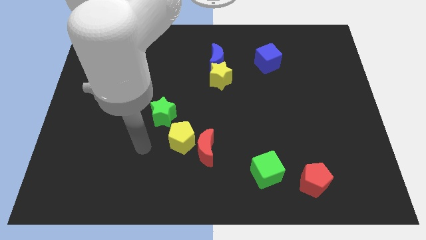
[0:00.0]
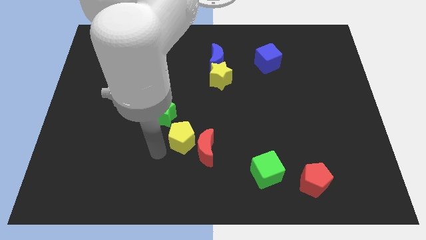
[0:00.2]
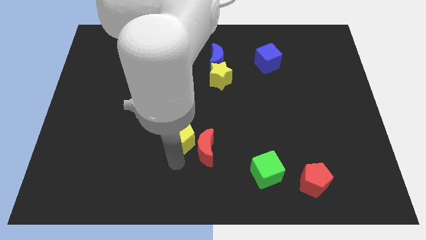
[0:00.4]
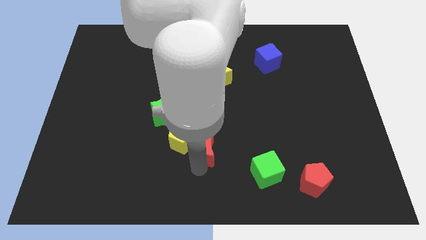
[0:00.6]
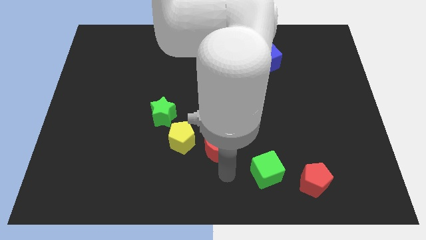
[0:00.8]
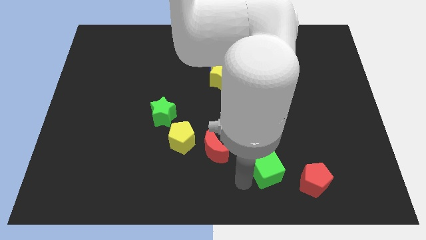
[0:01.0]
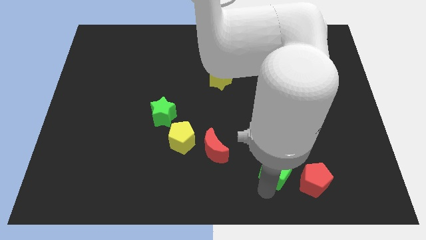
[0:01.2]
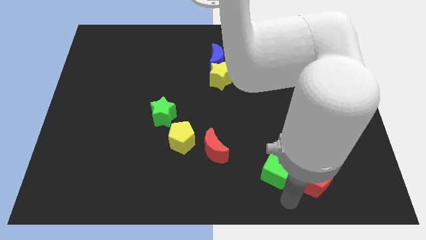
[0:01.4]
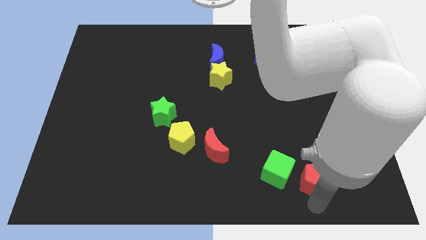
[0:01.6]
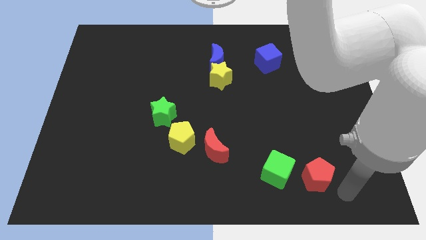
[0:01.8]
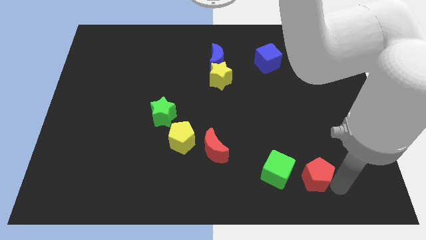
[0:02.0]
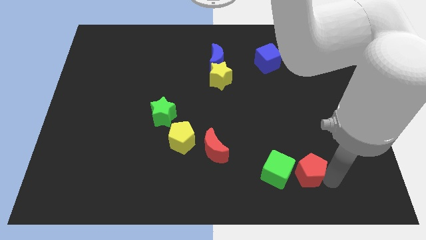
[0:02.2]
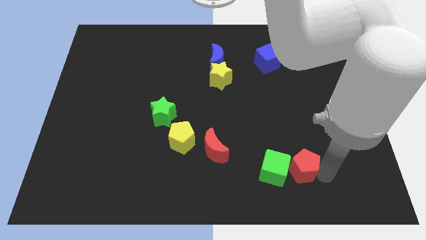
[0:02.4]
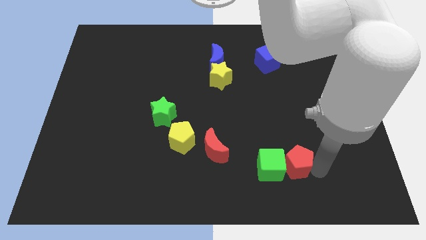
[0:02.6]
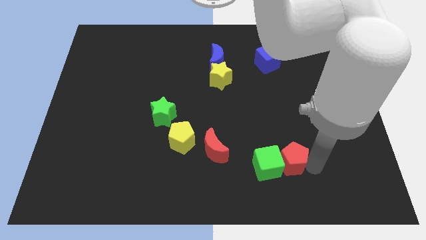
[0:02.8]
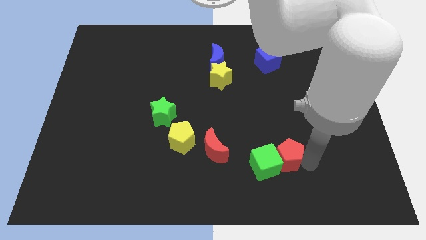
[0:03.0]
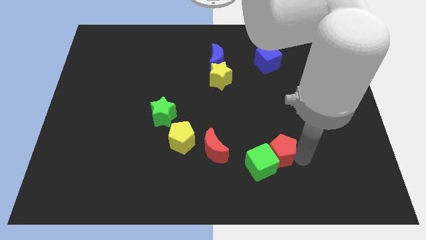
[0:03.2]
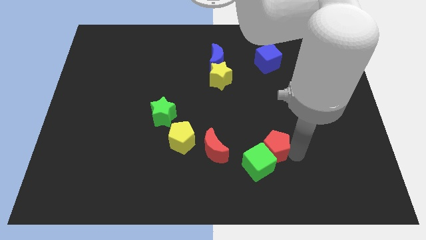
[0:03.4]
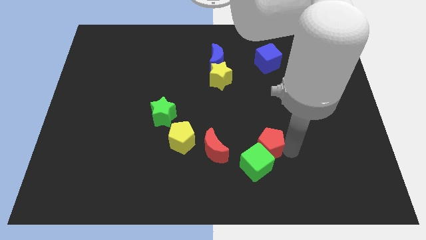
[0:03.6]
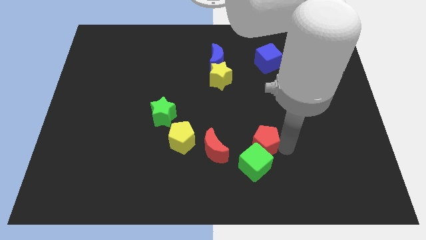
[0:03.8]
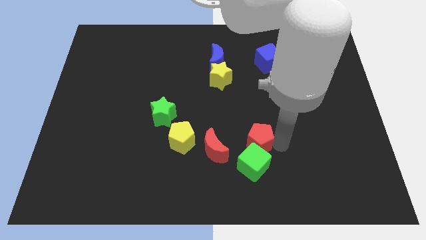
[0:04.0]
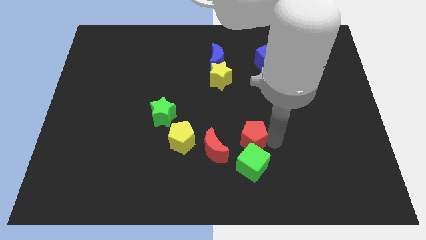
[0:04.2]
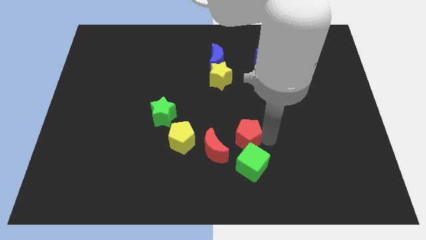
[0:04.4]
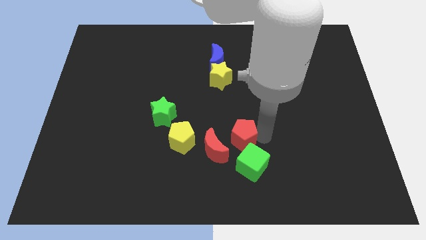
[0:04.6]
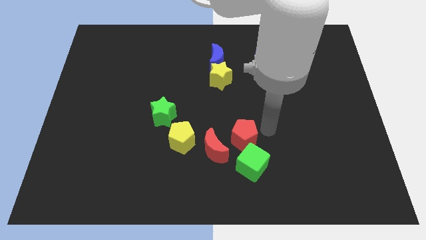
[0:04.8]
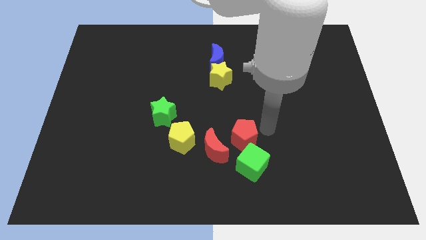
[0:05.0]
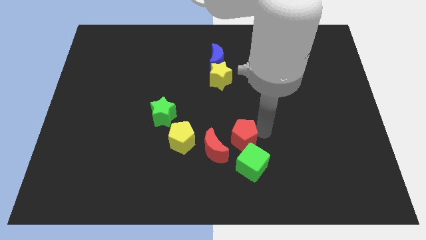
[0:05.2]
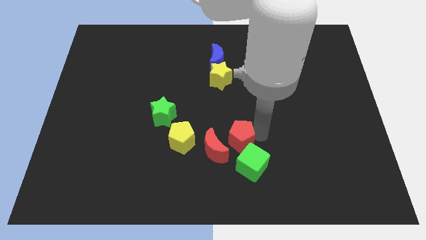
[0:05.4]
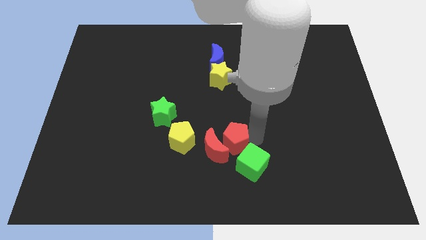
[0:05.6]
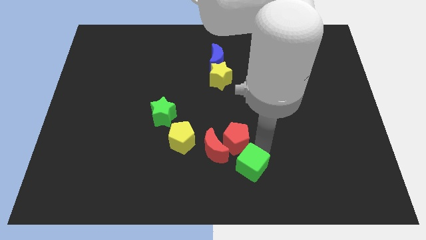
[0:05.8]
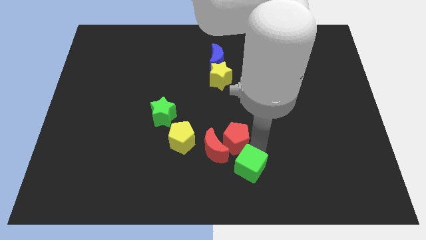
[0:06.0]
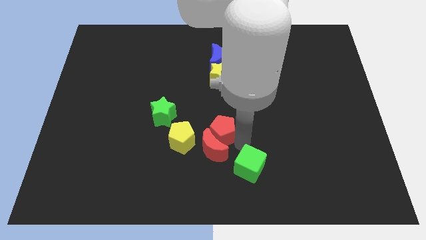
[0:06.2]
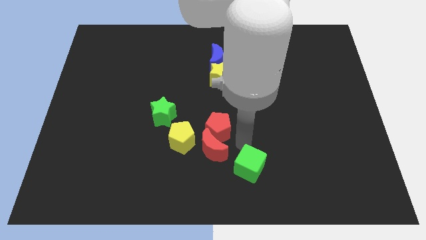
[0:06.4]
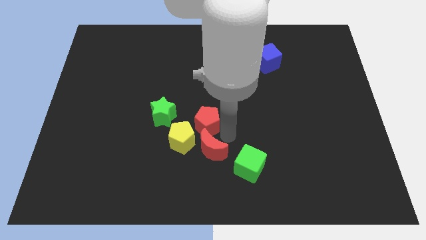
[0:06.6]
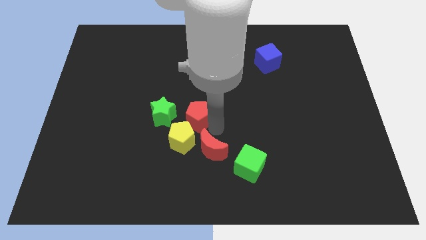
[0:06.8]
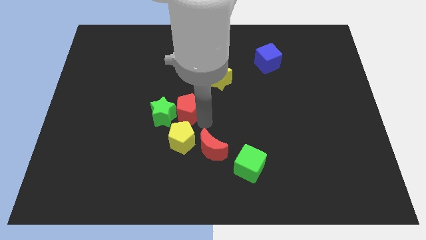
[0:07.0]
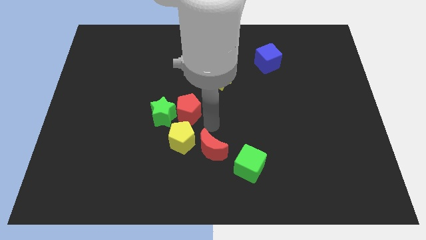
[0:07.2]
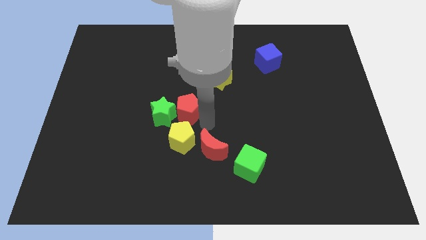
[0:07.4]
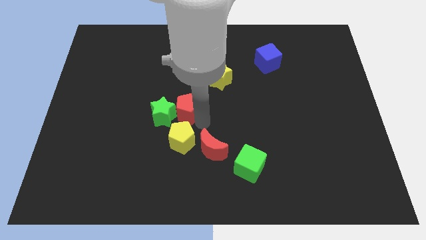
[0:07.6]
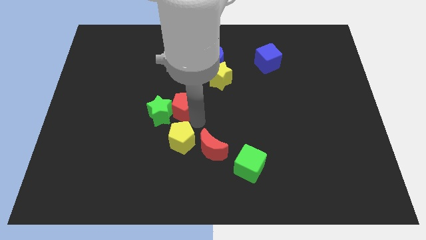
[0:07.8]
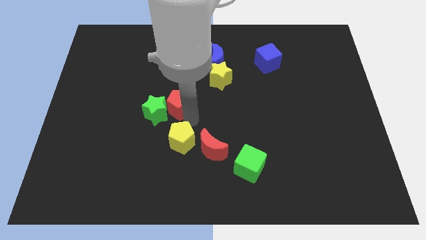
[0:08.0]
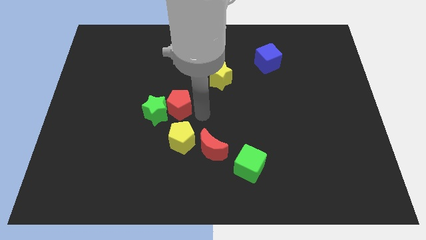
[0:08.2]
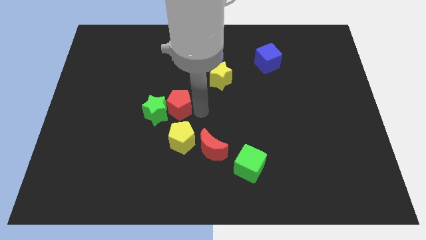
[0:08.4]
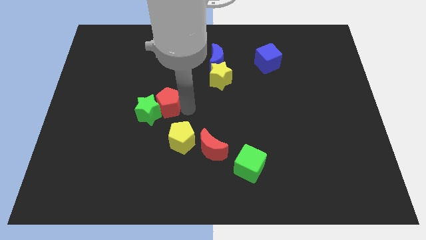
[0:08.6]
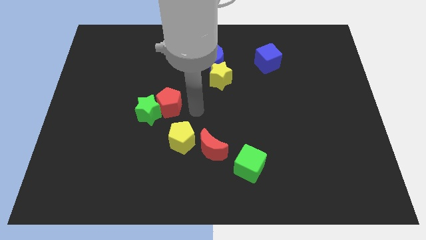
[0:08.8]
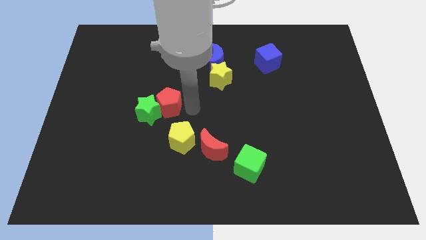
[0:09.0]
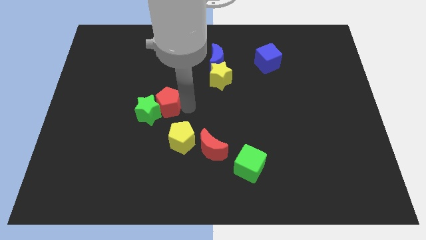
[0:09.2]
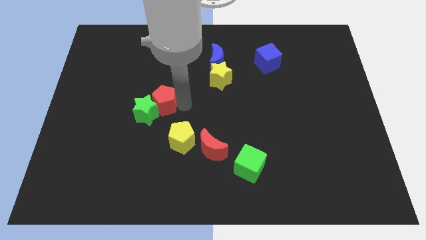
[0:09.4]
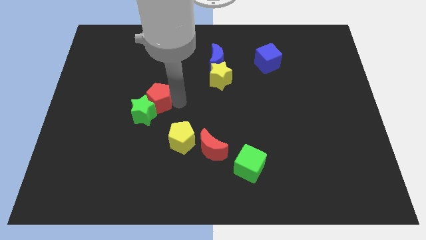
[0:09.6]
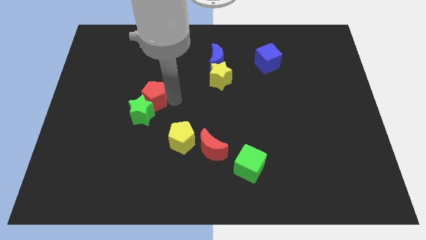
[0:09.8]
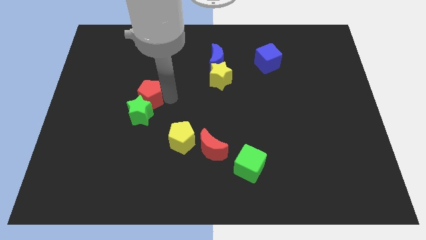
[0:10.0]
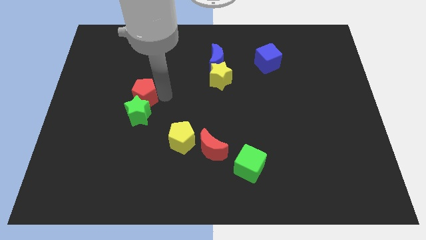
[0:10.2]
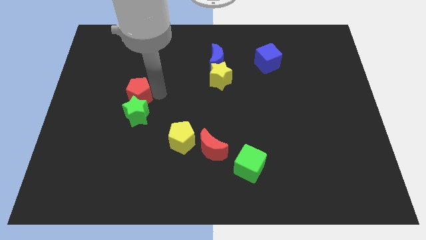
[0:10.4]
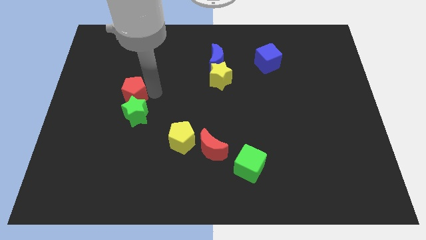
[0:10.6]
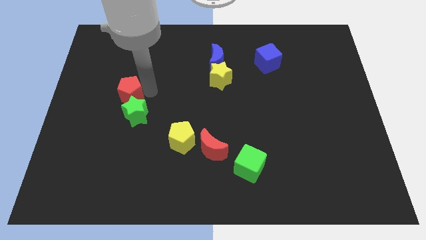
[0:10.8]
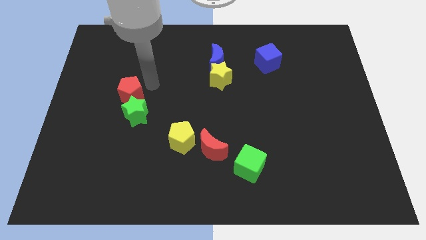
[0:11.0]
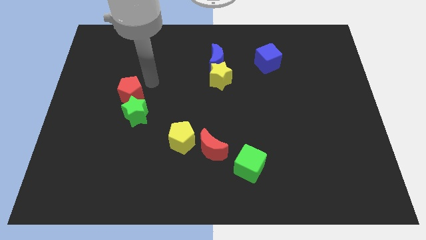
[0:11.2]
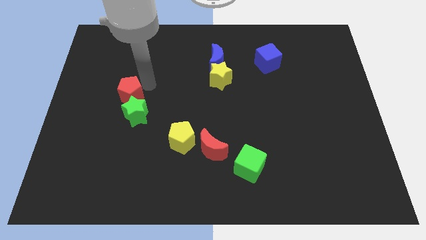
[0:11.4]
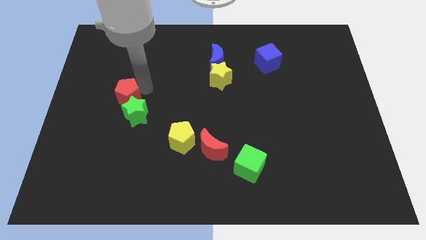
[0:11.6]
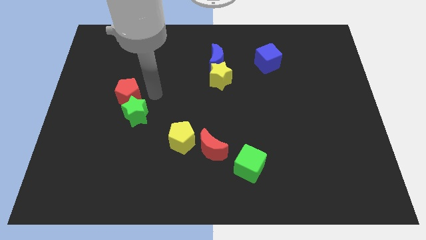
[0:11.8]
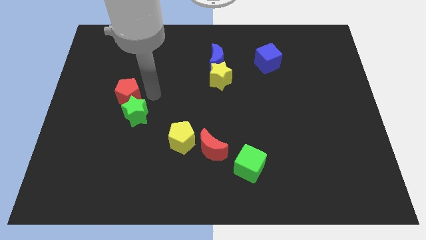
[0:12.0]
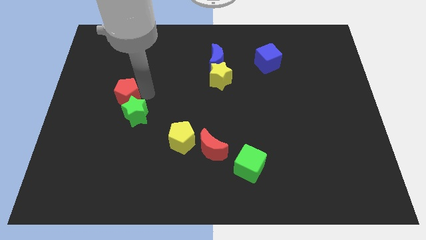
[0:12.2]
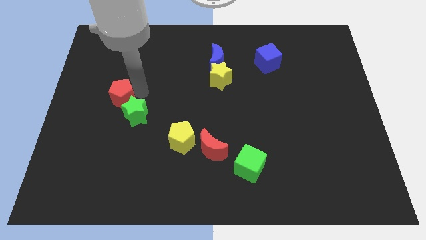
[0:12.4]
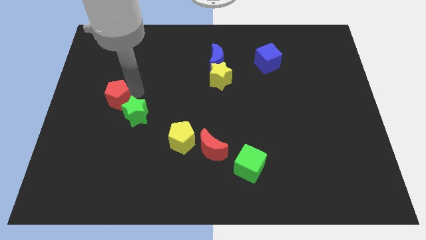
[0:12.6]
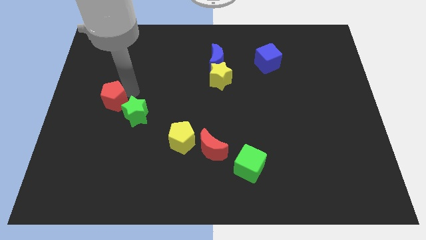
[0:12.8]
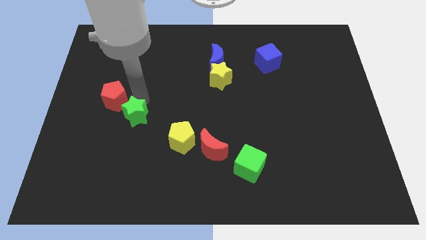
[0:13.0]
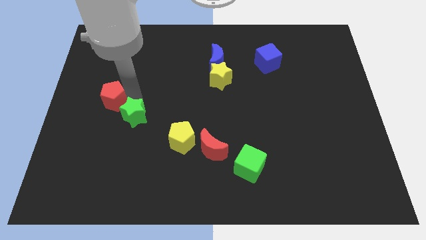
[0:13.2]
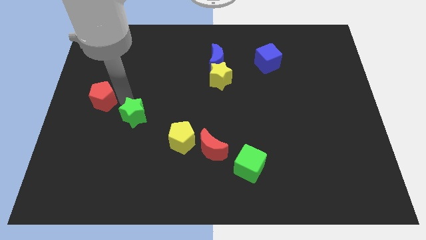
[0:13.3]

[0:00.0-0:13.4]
slide the red pentagon to the left side of the board
